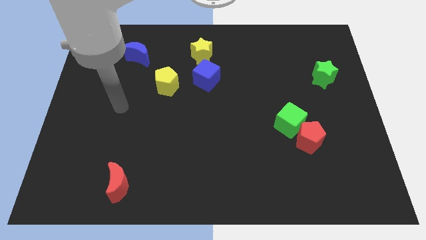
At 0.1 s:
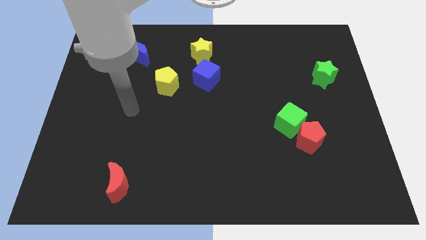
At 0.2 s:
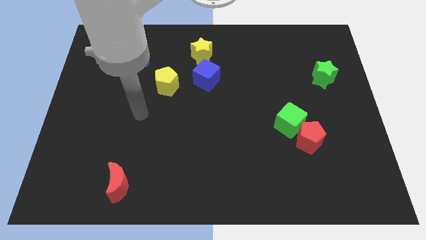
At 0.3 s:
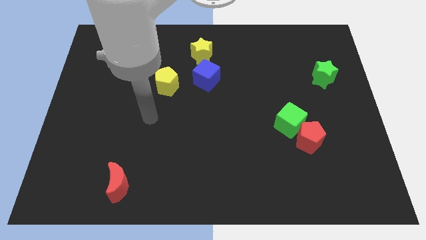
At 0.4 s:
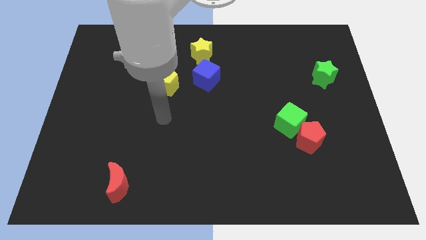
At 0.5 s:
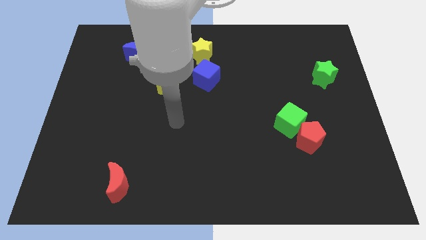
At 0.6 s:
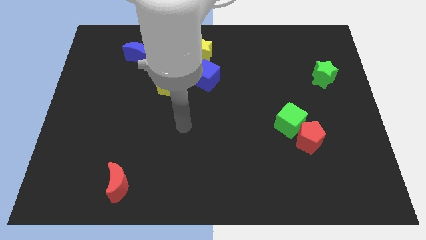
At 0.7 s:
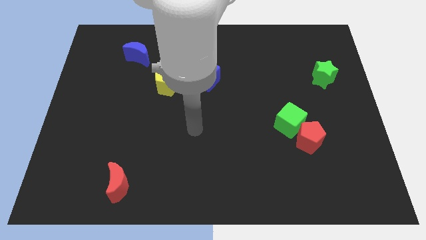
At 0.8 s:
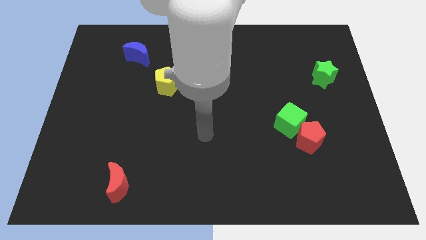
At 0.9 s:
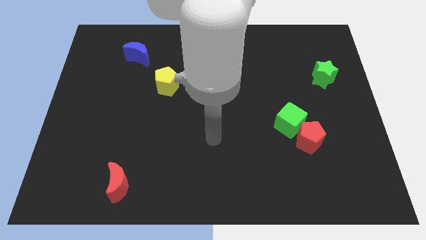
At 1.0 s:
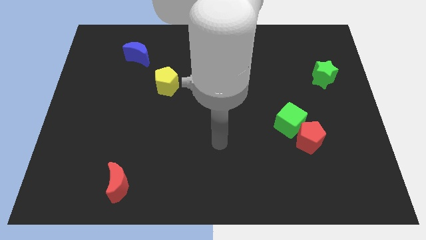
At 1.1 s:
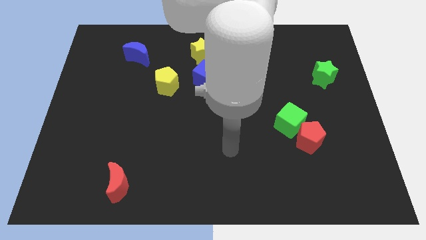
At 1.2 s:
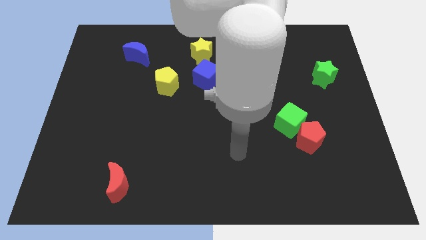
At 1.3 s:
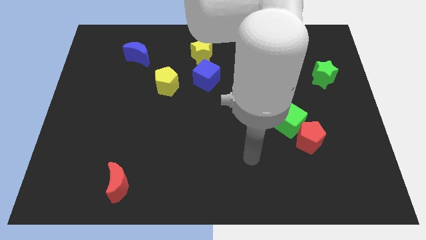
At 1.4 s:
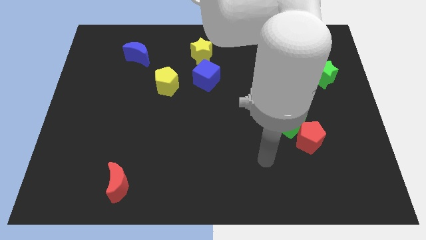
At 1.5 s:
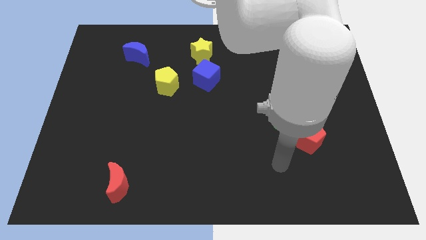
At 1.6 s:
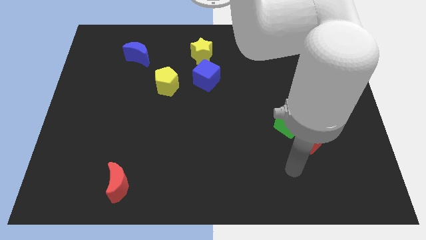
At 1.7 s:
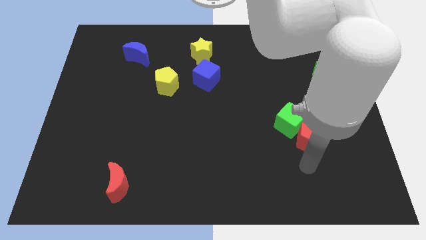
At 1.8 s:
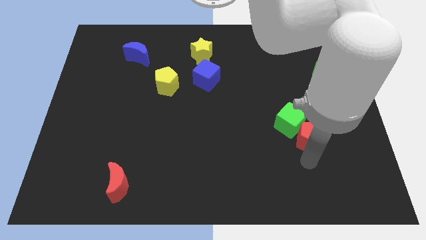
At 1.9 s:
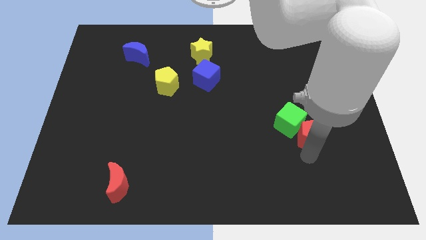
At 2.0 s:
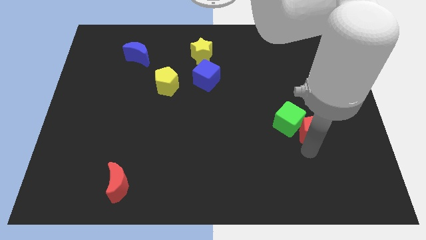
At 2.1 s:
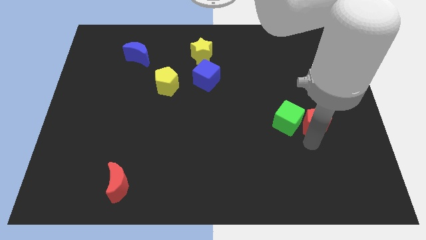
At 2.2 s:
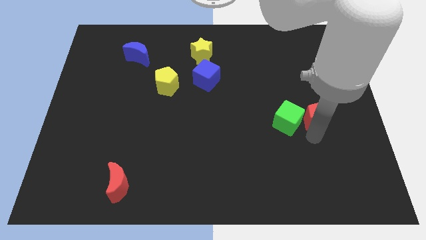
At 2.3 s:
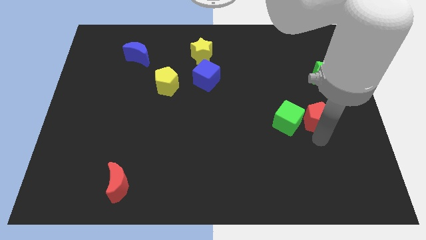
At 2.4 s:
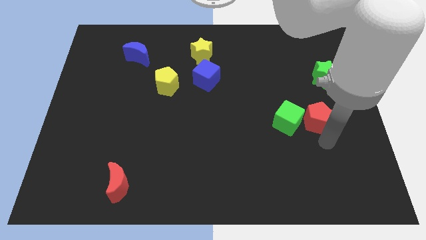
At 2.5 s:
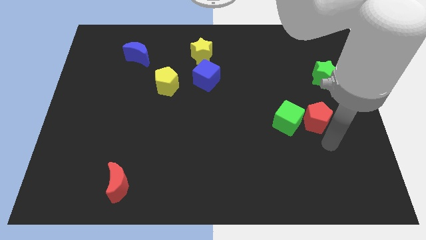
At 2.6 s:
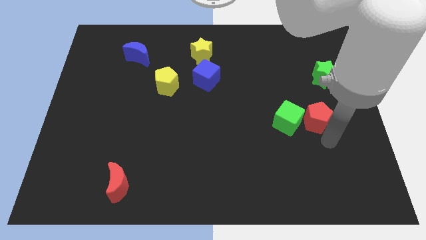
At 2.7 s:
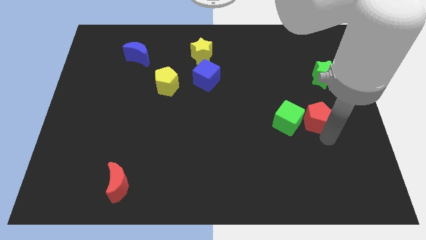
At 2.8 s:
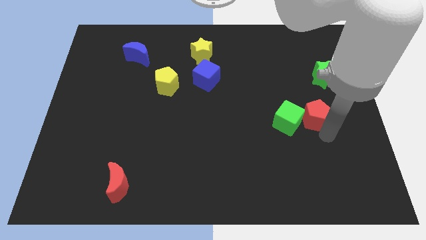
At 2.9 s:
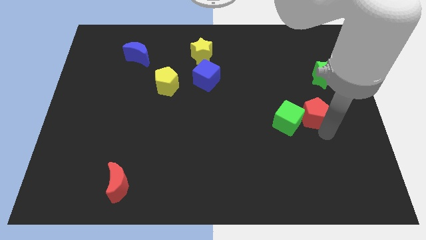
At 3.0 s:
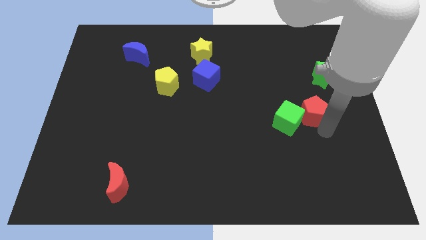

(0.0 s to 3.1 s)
slide the red pentagon a little upwards

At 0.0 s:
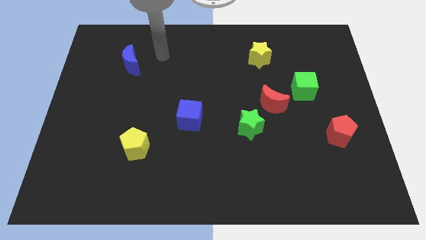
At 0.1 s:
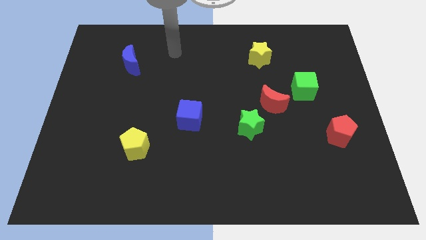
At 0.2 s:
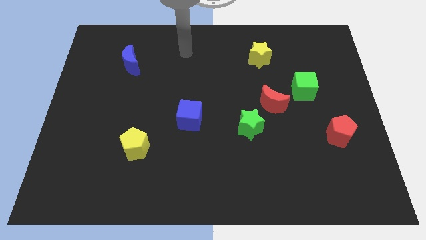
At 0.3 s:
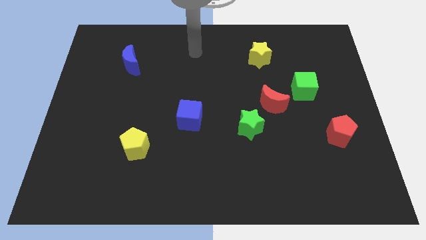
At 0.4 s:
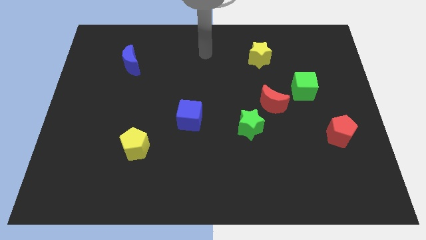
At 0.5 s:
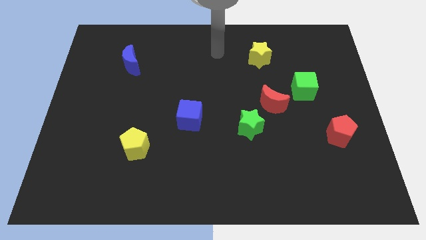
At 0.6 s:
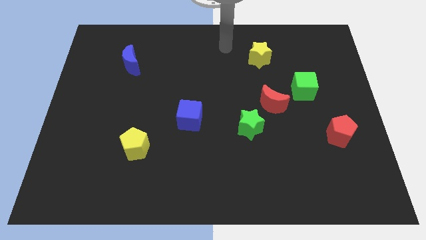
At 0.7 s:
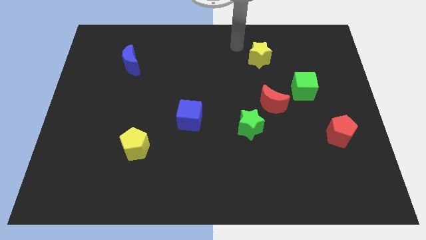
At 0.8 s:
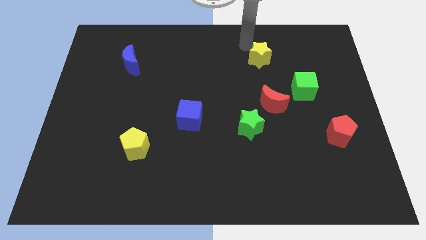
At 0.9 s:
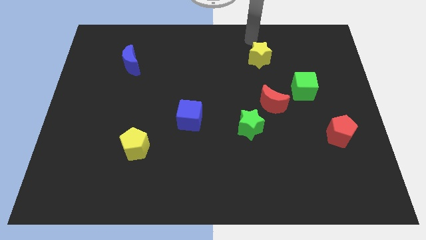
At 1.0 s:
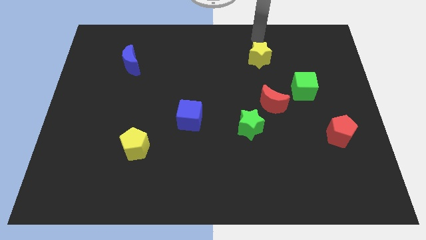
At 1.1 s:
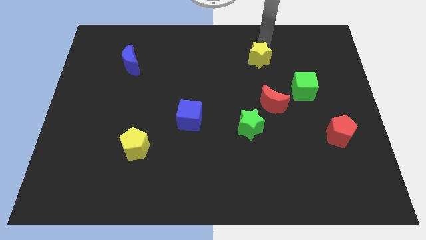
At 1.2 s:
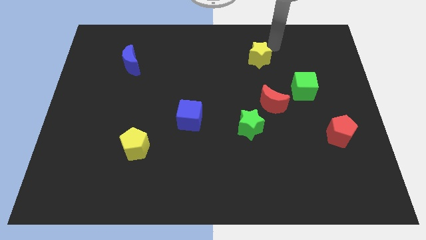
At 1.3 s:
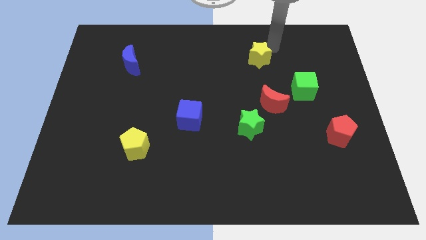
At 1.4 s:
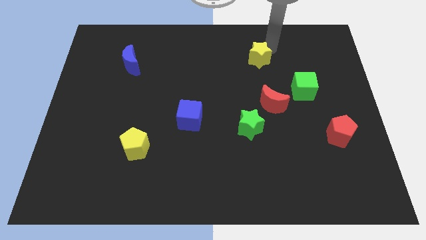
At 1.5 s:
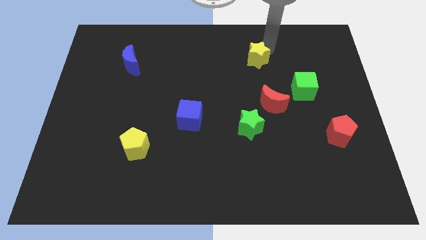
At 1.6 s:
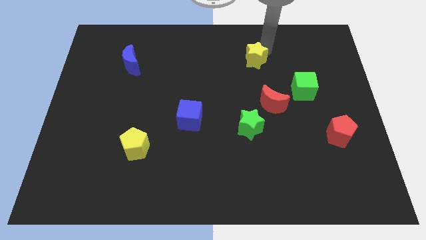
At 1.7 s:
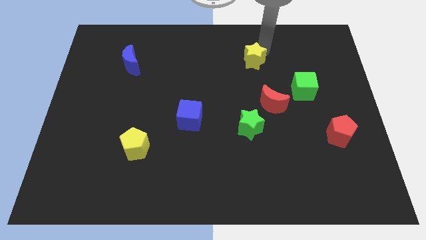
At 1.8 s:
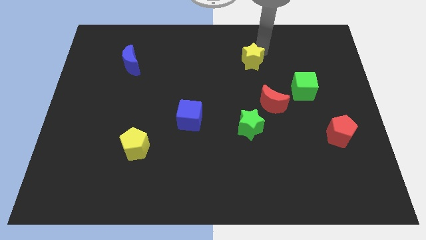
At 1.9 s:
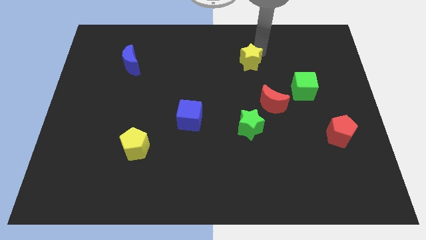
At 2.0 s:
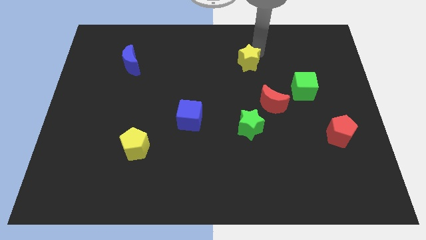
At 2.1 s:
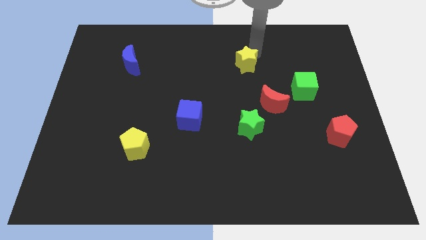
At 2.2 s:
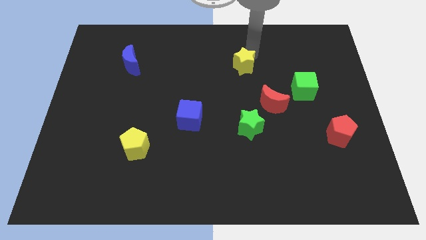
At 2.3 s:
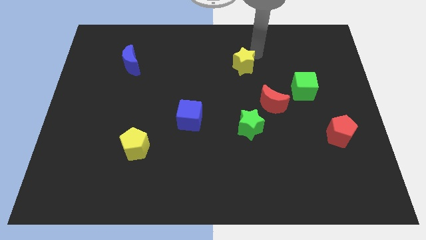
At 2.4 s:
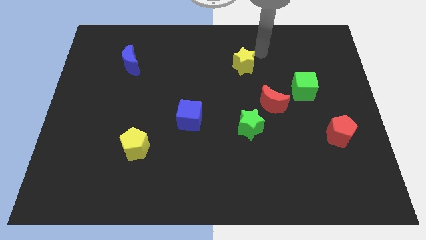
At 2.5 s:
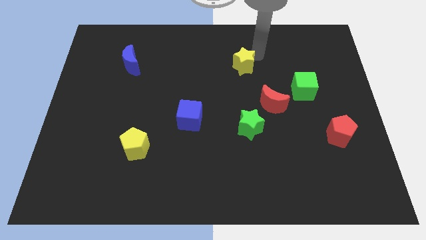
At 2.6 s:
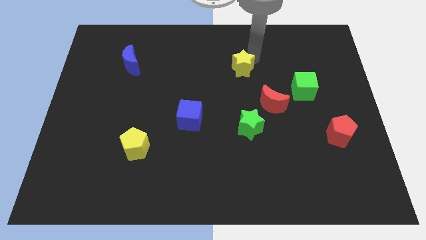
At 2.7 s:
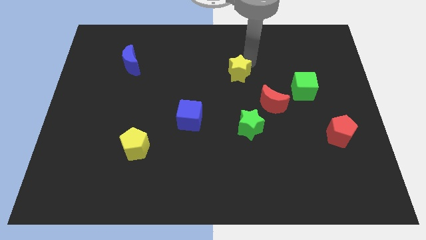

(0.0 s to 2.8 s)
slide the yellow star diagonally down and to the left a little bit

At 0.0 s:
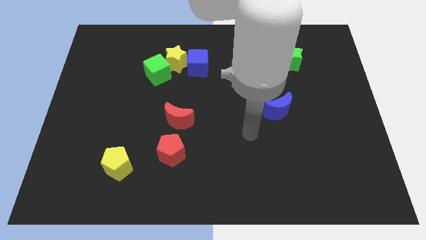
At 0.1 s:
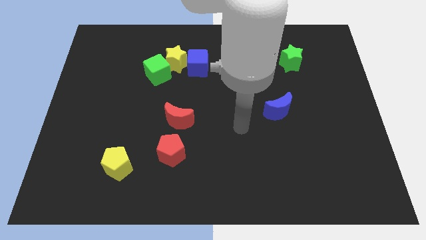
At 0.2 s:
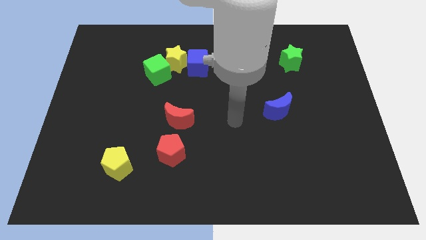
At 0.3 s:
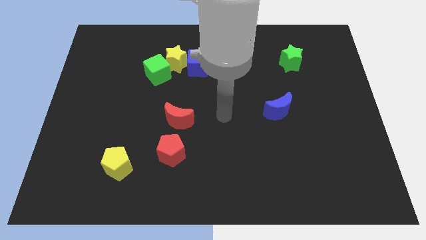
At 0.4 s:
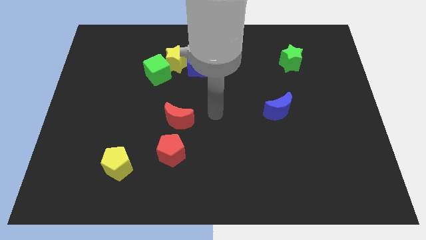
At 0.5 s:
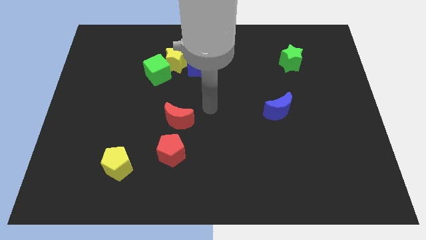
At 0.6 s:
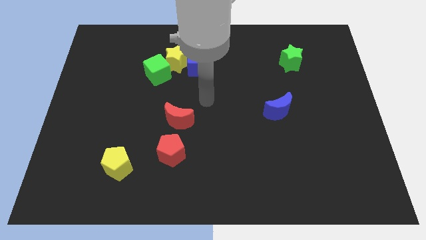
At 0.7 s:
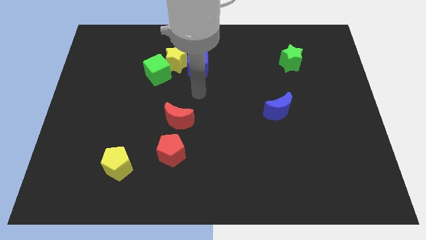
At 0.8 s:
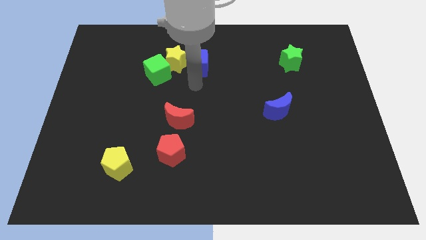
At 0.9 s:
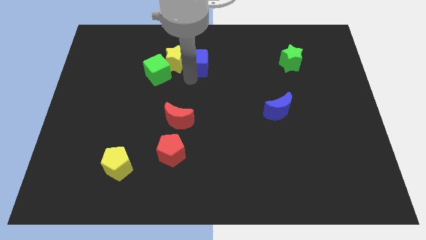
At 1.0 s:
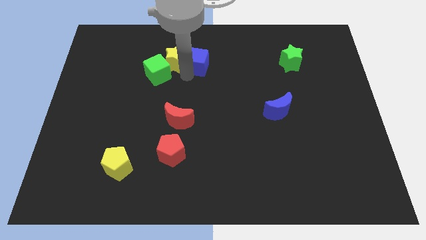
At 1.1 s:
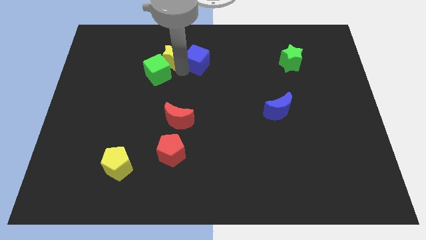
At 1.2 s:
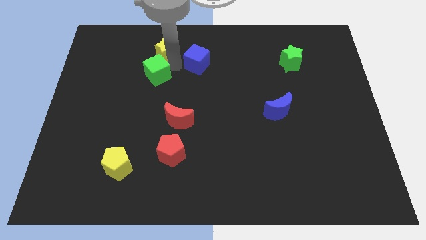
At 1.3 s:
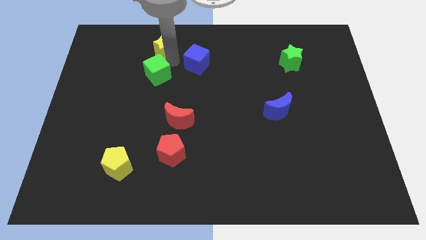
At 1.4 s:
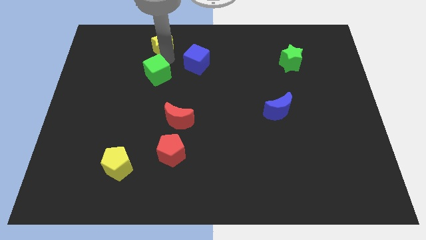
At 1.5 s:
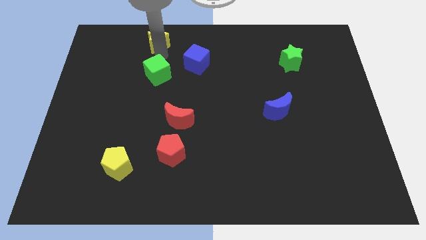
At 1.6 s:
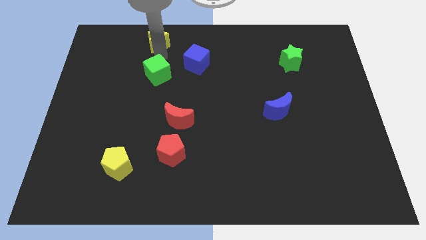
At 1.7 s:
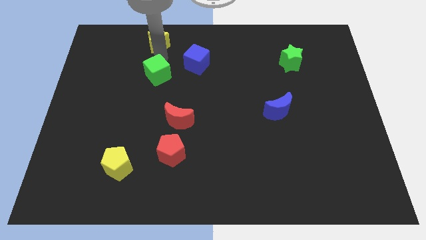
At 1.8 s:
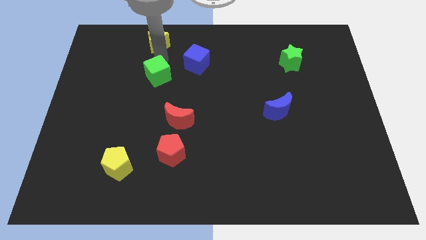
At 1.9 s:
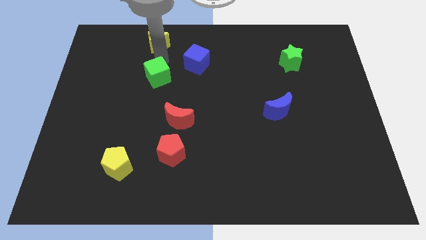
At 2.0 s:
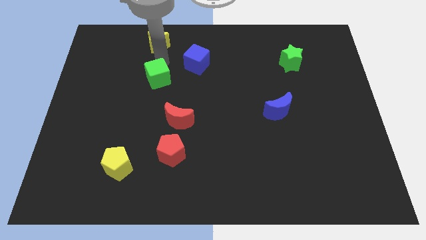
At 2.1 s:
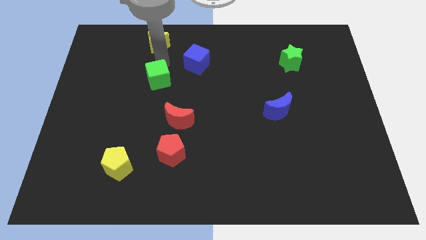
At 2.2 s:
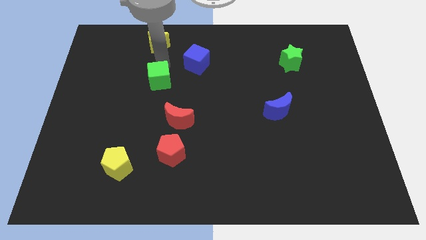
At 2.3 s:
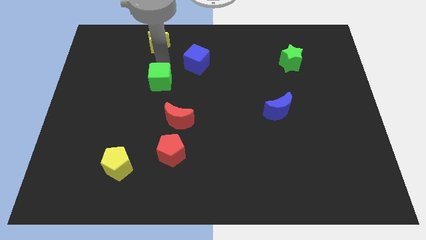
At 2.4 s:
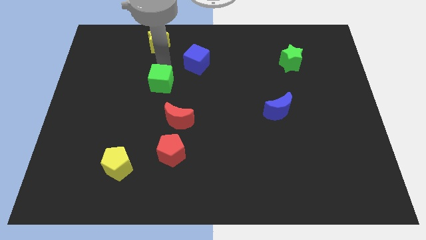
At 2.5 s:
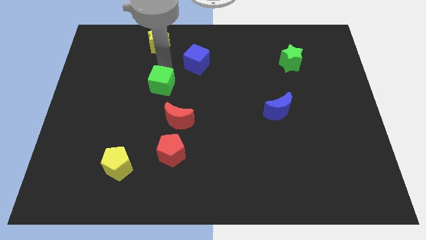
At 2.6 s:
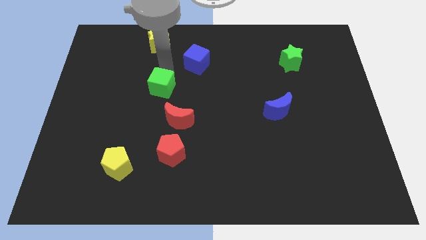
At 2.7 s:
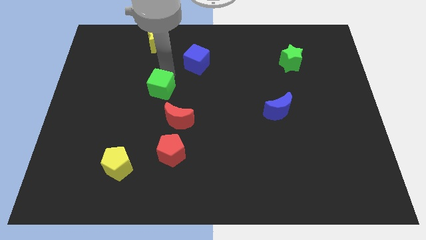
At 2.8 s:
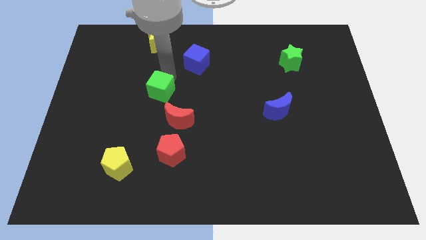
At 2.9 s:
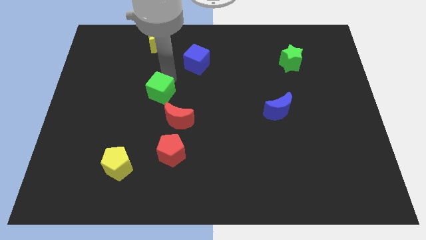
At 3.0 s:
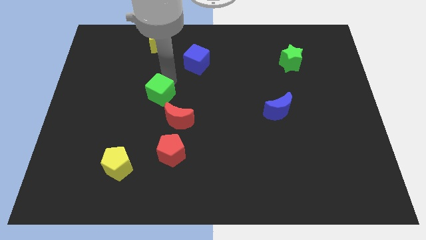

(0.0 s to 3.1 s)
slightly slide the green cube downwards
